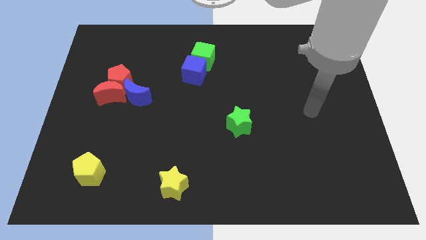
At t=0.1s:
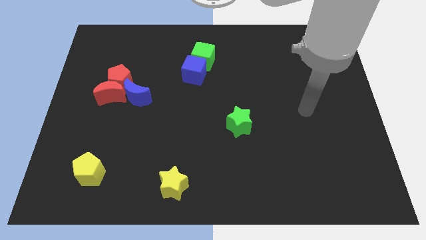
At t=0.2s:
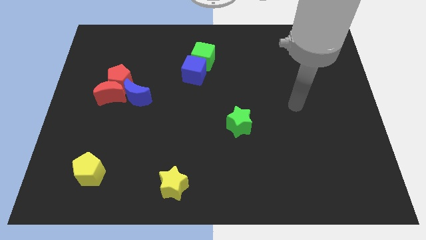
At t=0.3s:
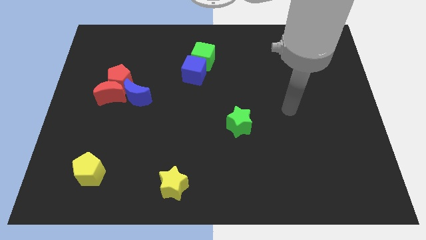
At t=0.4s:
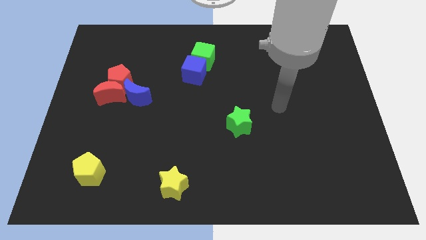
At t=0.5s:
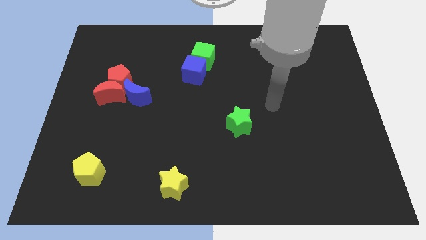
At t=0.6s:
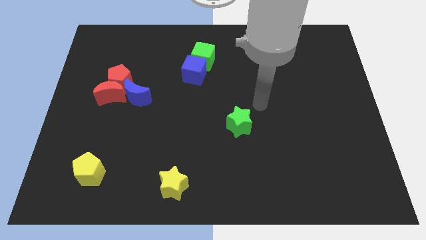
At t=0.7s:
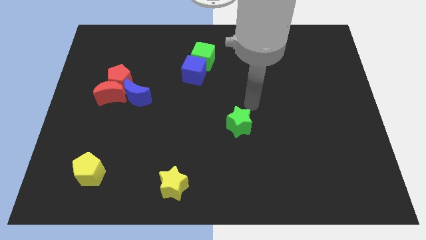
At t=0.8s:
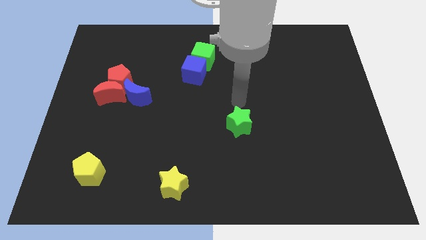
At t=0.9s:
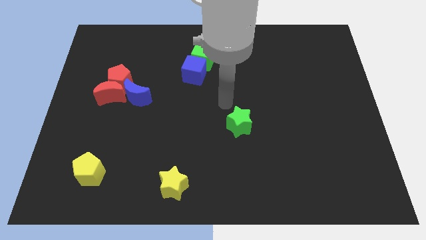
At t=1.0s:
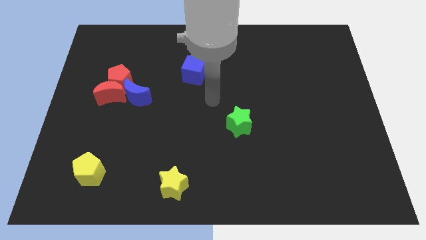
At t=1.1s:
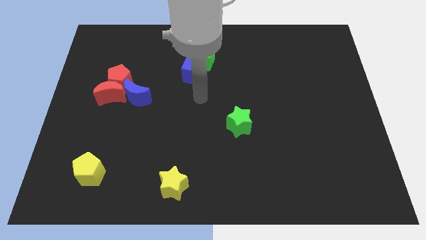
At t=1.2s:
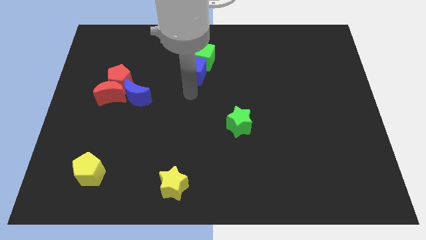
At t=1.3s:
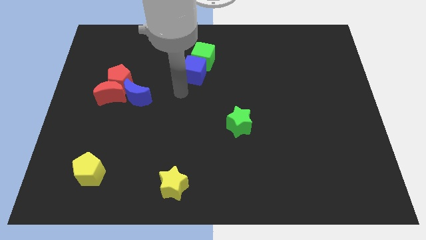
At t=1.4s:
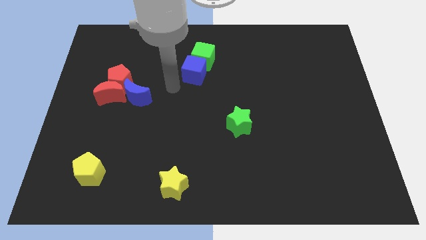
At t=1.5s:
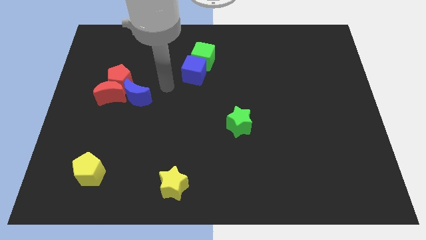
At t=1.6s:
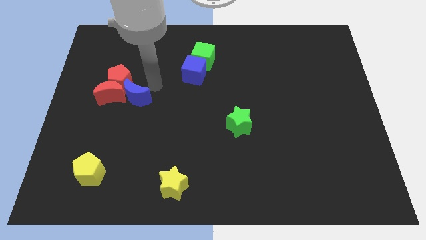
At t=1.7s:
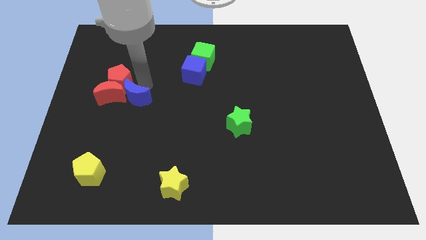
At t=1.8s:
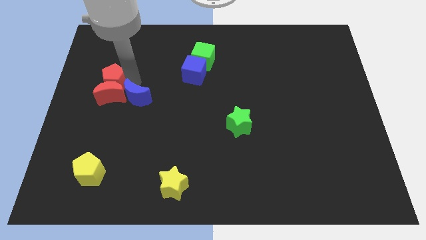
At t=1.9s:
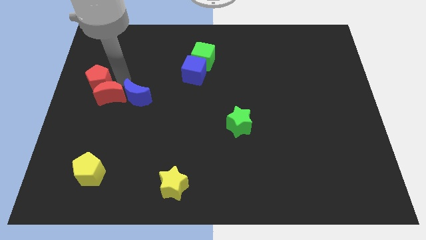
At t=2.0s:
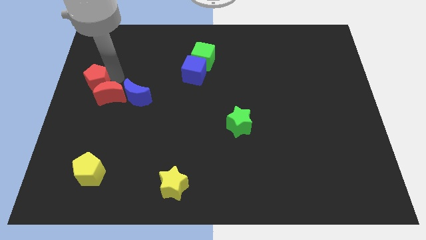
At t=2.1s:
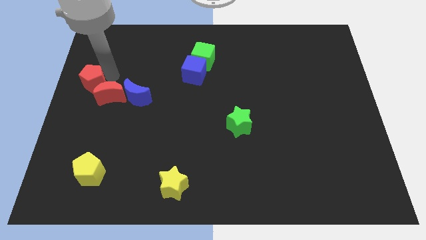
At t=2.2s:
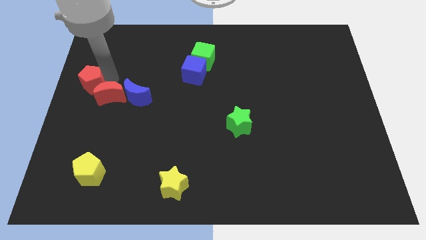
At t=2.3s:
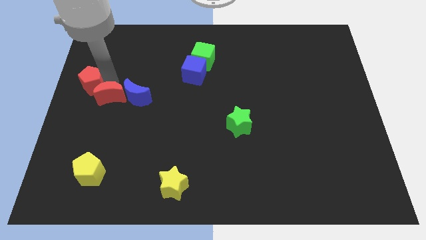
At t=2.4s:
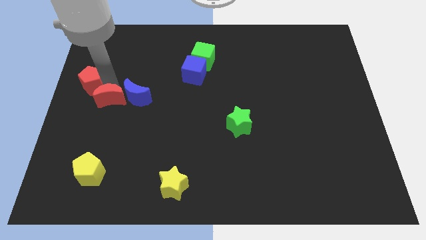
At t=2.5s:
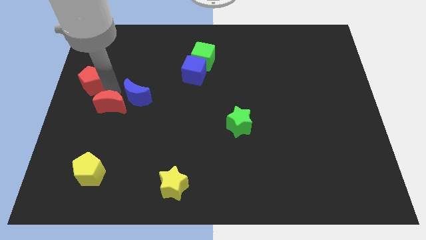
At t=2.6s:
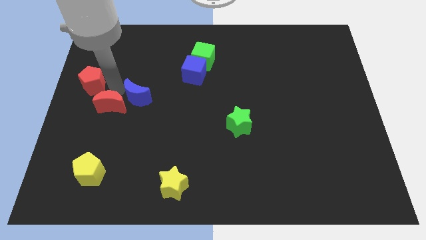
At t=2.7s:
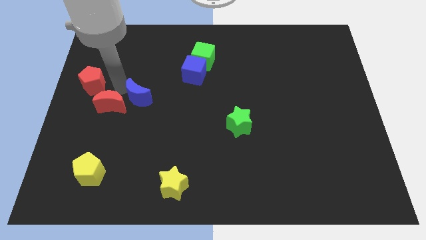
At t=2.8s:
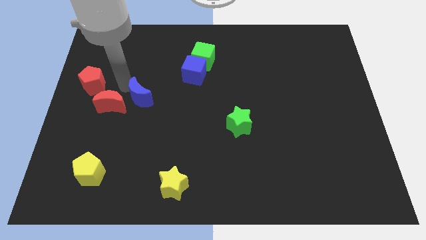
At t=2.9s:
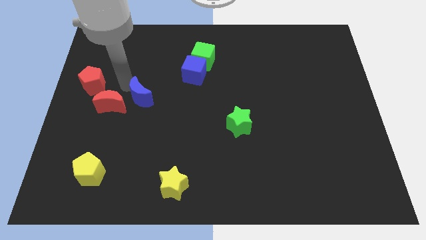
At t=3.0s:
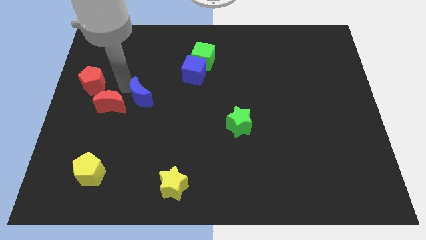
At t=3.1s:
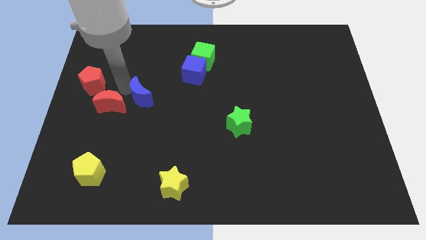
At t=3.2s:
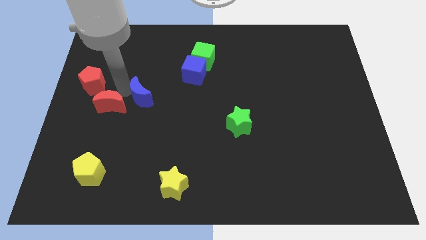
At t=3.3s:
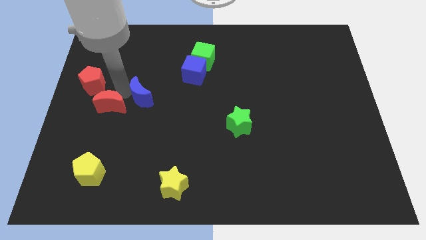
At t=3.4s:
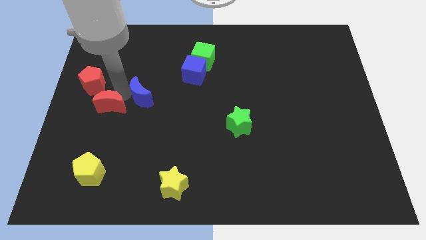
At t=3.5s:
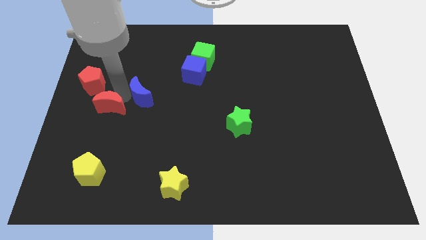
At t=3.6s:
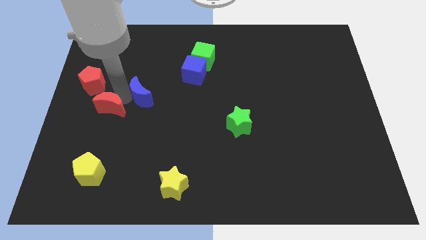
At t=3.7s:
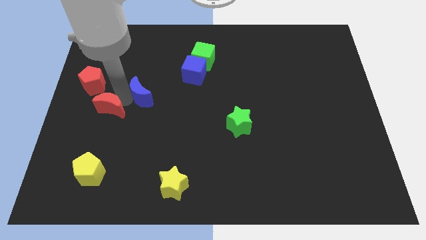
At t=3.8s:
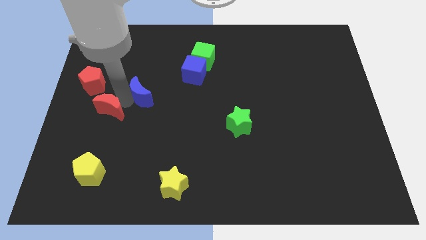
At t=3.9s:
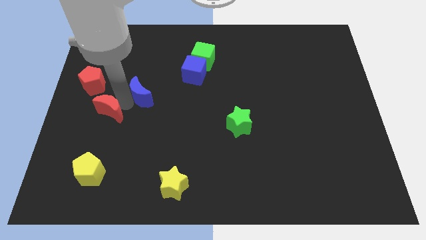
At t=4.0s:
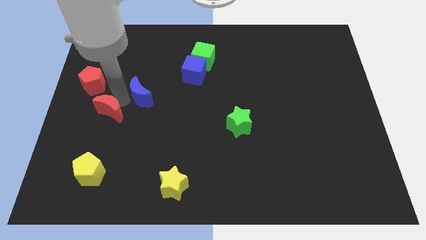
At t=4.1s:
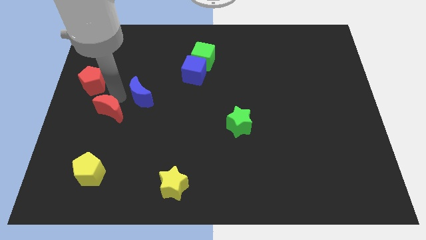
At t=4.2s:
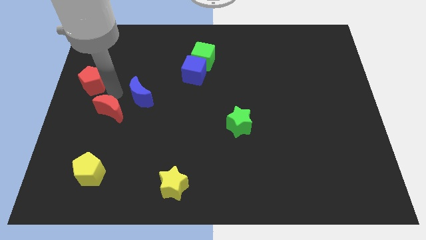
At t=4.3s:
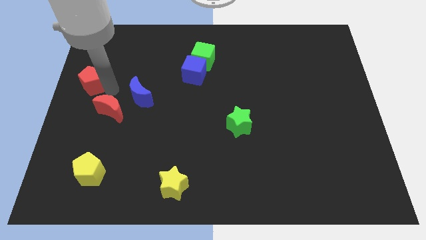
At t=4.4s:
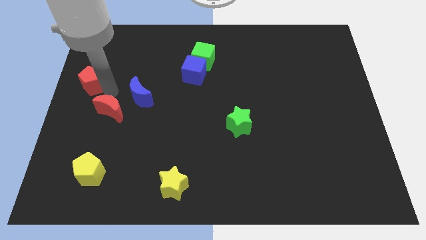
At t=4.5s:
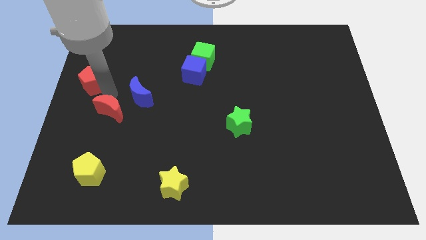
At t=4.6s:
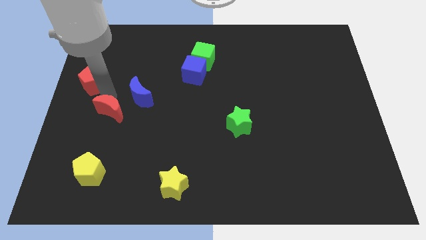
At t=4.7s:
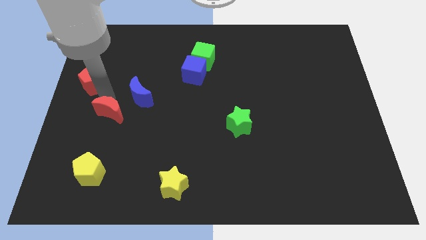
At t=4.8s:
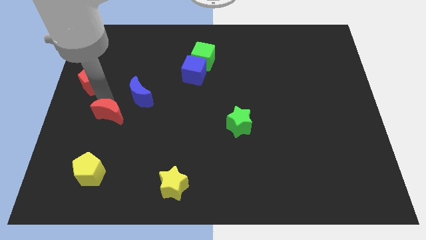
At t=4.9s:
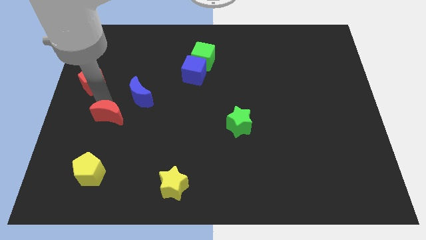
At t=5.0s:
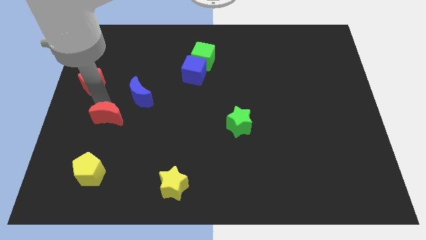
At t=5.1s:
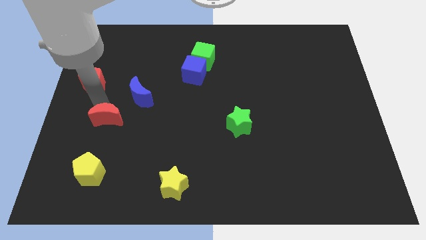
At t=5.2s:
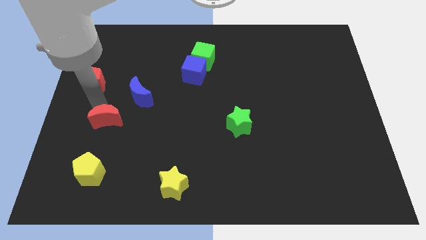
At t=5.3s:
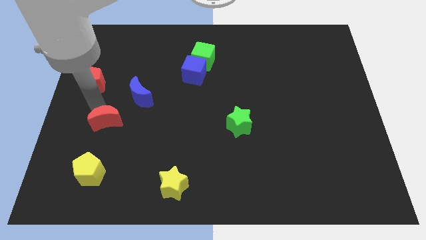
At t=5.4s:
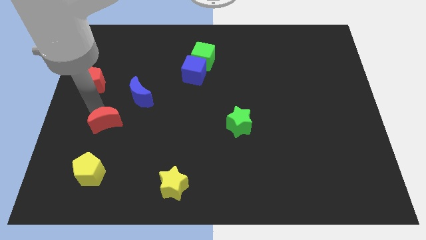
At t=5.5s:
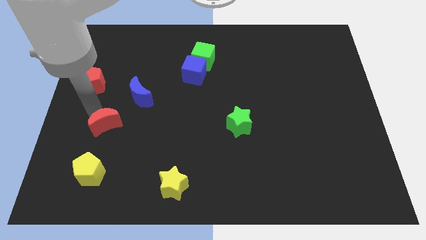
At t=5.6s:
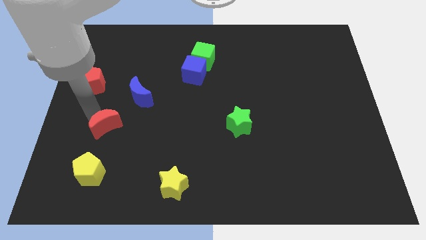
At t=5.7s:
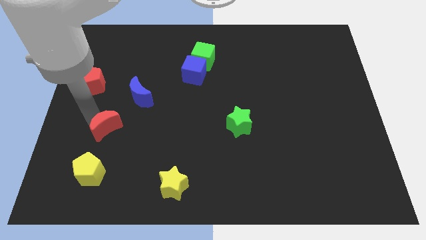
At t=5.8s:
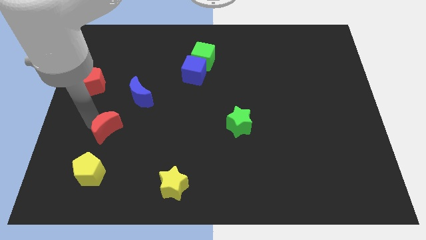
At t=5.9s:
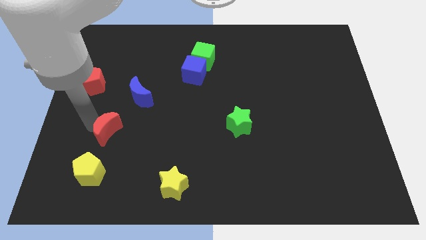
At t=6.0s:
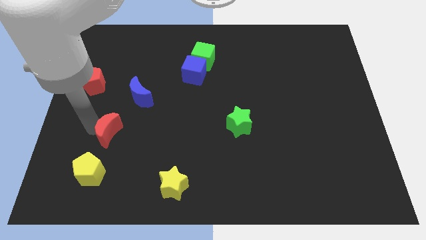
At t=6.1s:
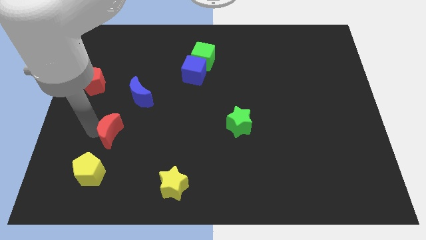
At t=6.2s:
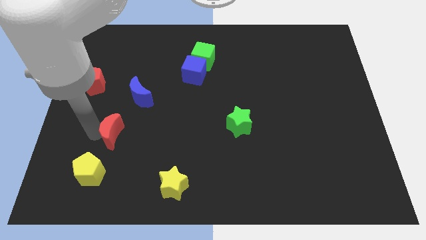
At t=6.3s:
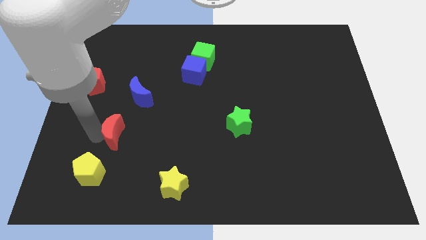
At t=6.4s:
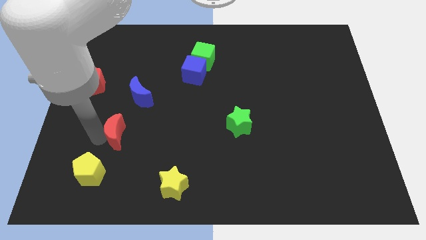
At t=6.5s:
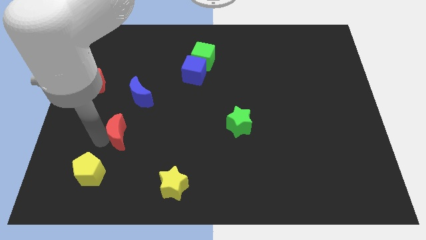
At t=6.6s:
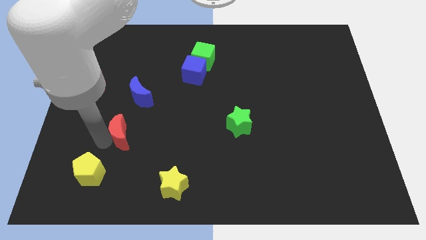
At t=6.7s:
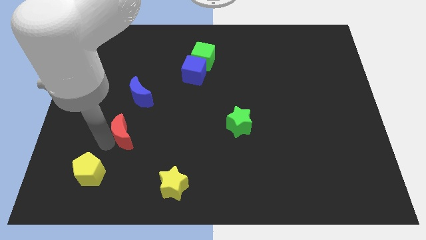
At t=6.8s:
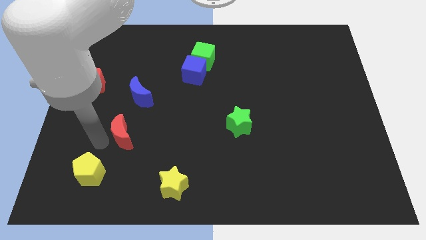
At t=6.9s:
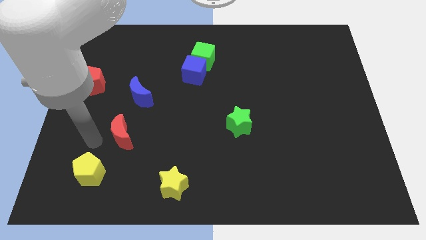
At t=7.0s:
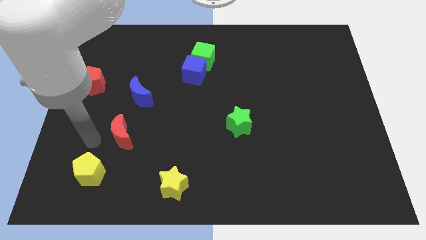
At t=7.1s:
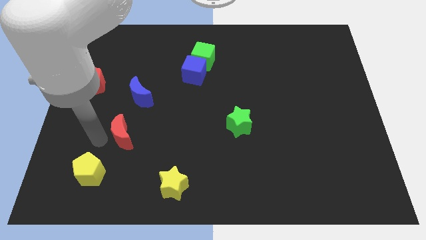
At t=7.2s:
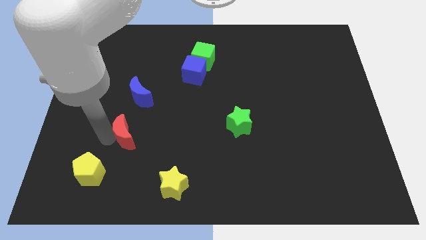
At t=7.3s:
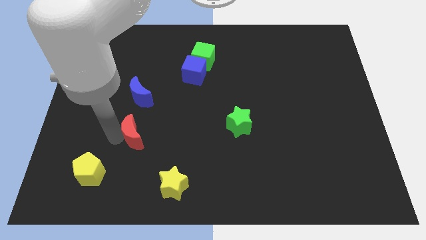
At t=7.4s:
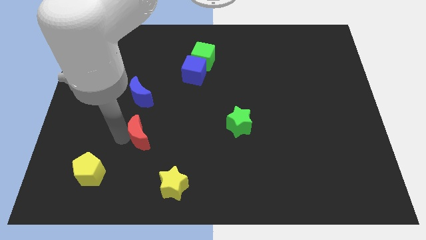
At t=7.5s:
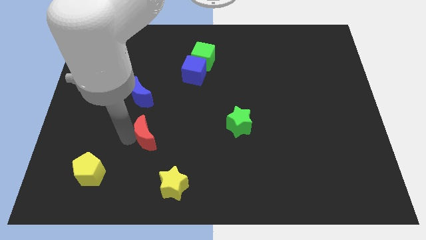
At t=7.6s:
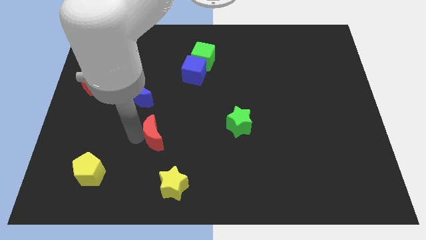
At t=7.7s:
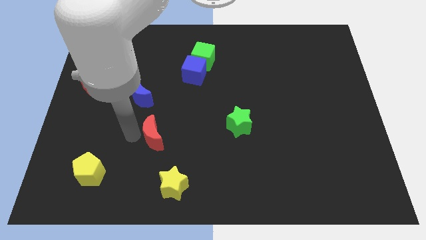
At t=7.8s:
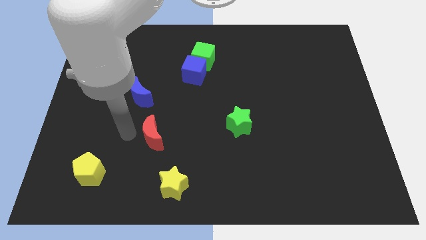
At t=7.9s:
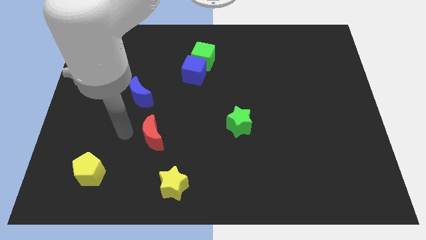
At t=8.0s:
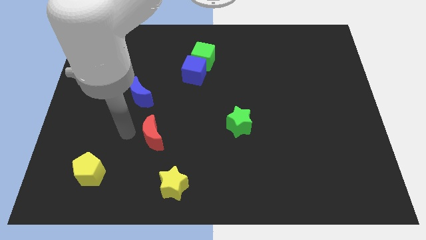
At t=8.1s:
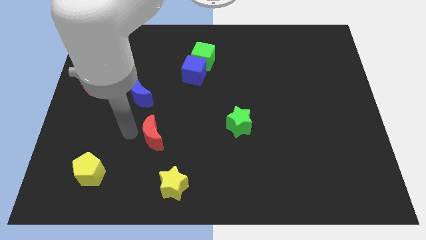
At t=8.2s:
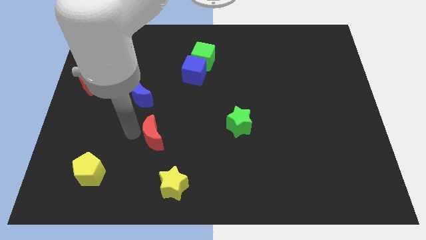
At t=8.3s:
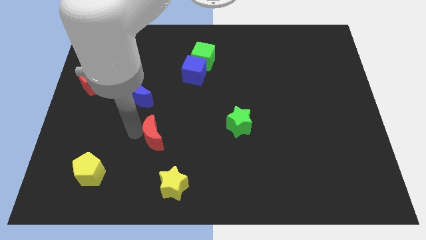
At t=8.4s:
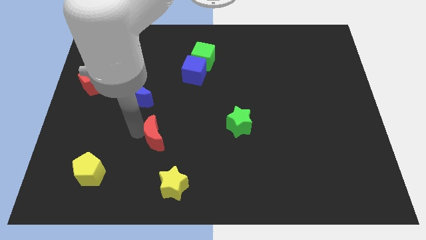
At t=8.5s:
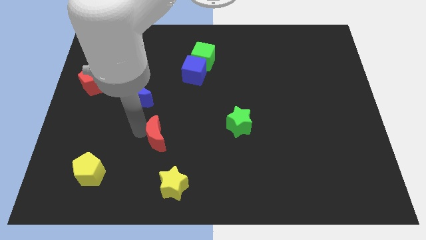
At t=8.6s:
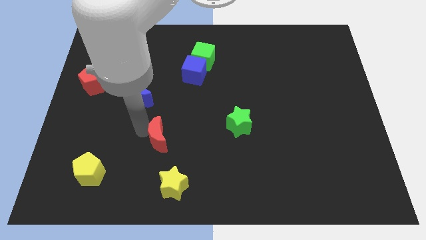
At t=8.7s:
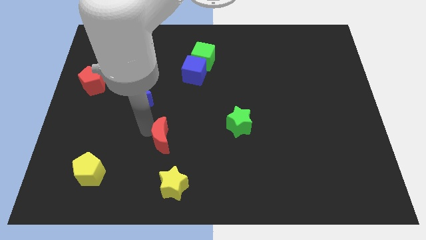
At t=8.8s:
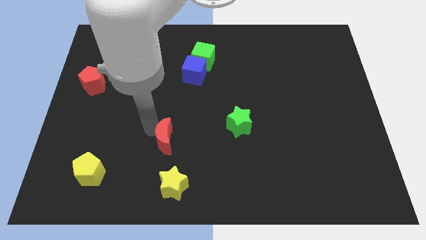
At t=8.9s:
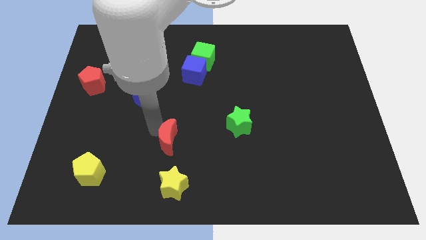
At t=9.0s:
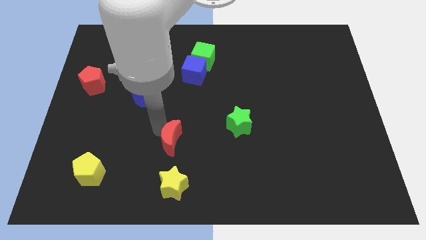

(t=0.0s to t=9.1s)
move the red moon diagonally down and to the right
